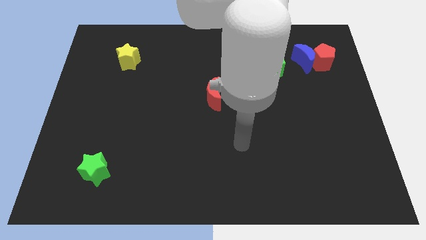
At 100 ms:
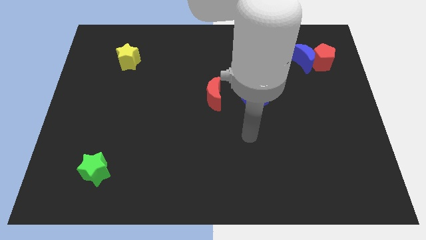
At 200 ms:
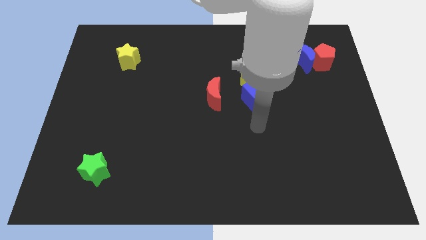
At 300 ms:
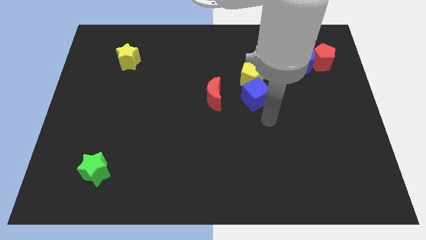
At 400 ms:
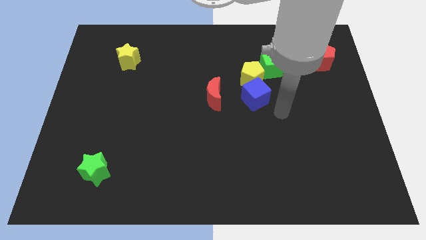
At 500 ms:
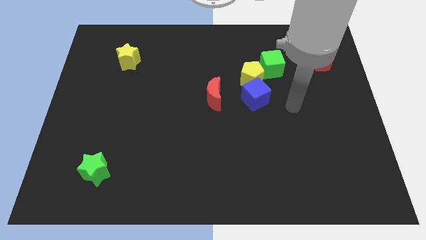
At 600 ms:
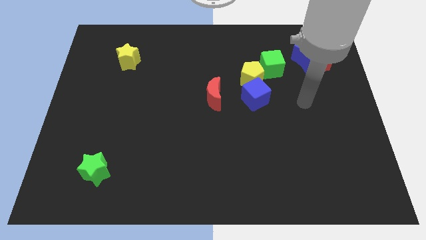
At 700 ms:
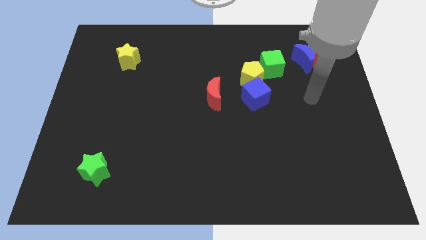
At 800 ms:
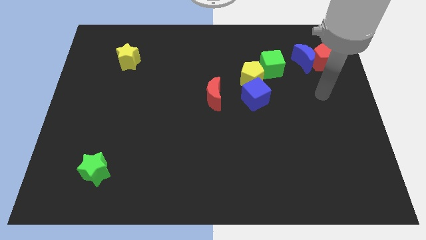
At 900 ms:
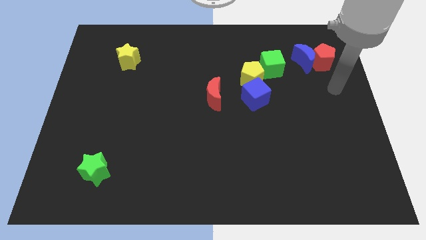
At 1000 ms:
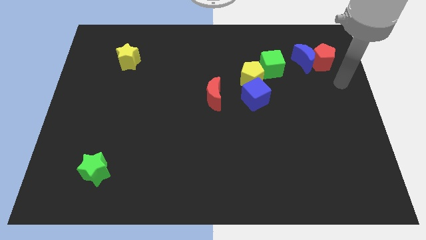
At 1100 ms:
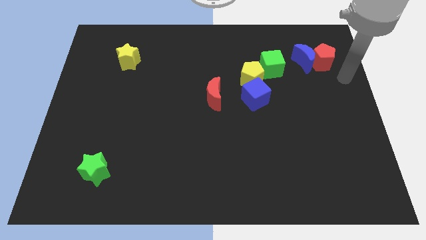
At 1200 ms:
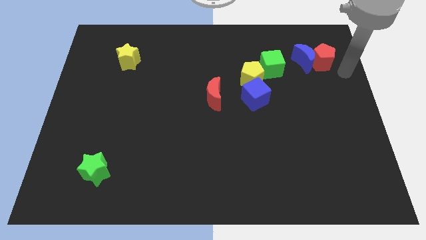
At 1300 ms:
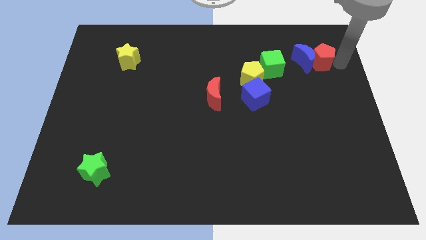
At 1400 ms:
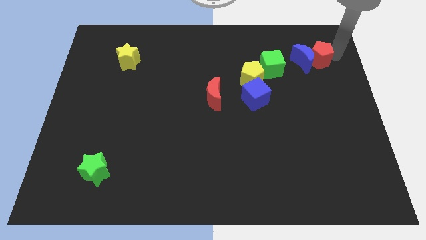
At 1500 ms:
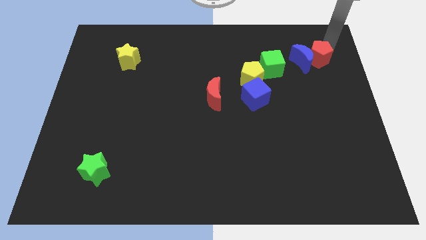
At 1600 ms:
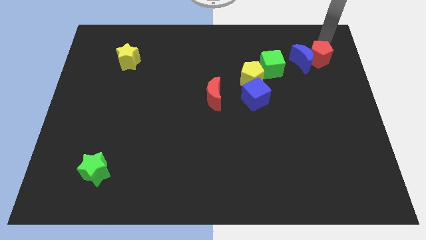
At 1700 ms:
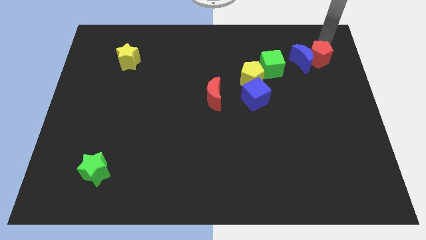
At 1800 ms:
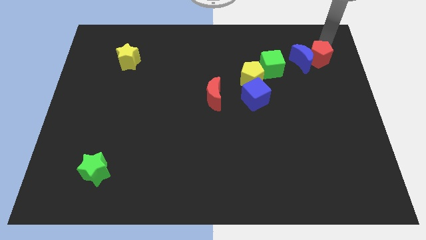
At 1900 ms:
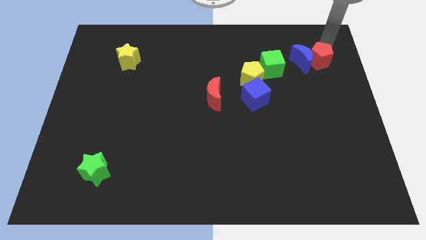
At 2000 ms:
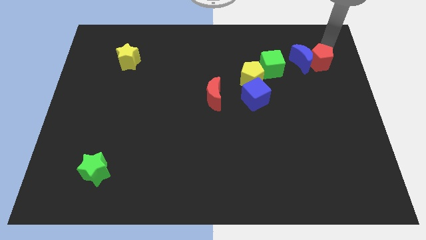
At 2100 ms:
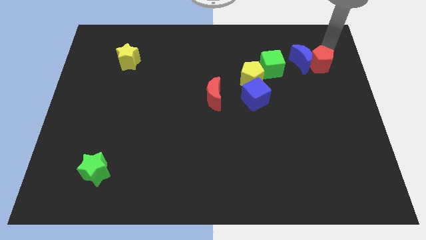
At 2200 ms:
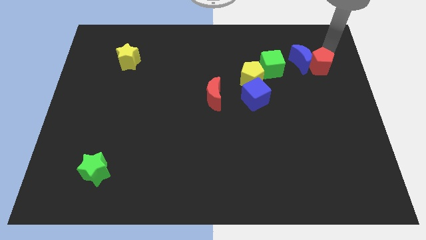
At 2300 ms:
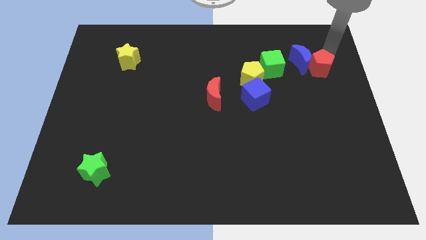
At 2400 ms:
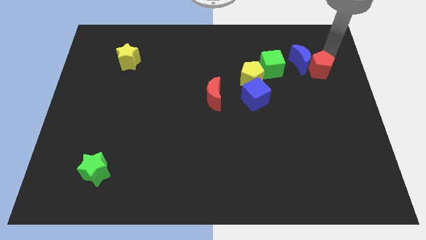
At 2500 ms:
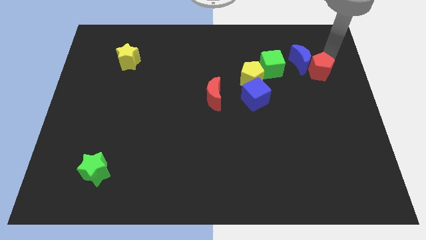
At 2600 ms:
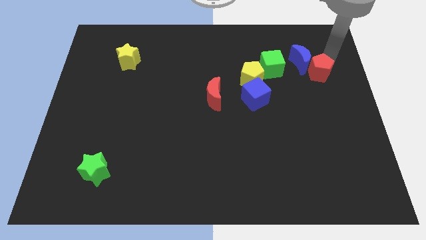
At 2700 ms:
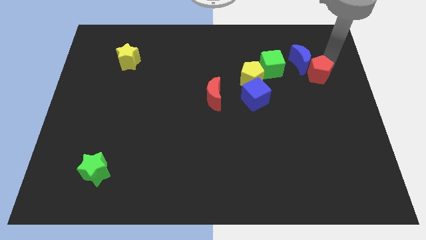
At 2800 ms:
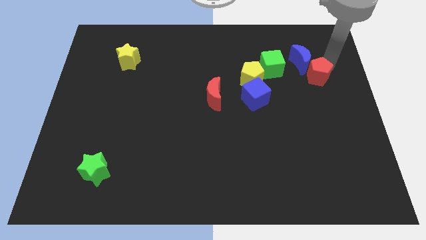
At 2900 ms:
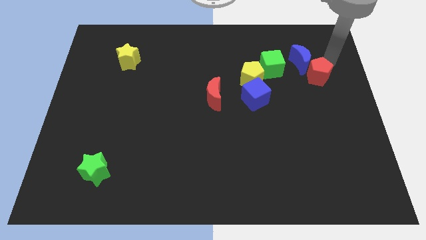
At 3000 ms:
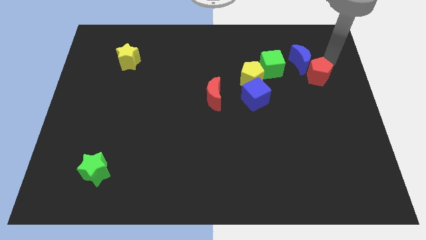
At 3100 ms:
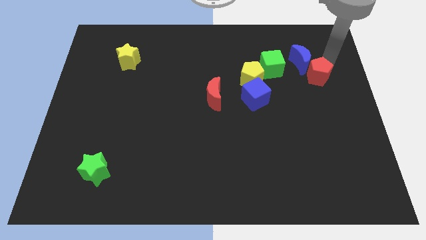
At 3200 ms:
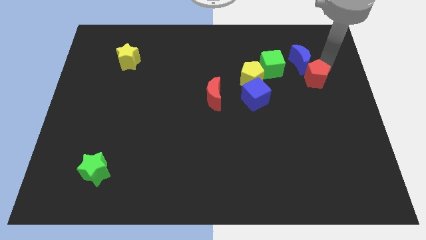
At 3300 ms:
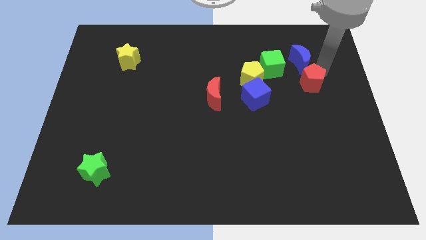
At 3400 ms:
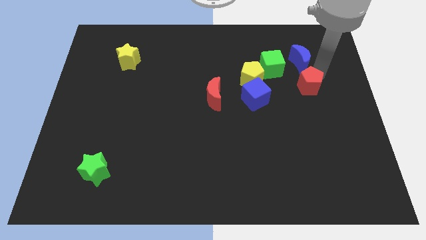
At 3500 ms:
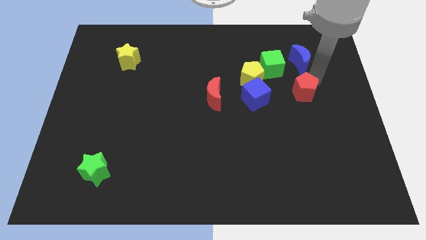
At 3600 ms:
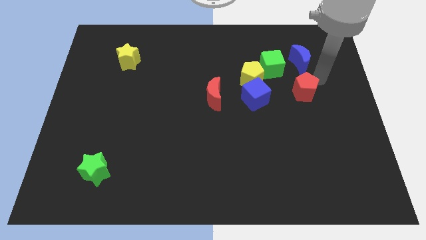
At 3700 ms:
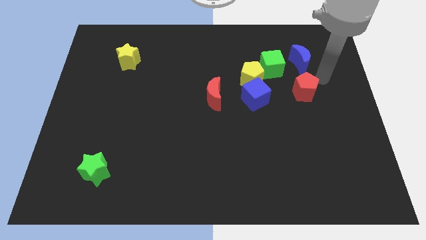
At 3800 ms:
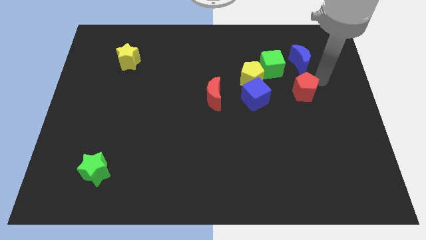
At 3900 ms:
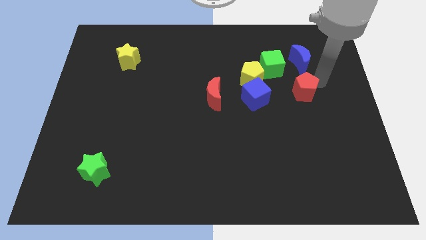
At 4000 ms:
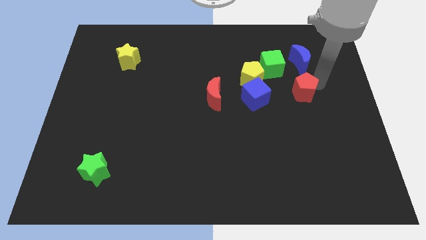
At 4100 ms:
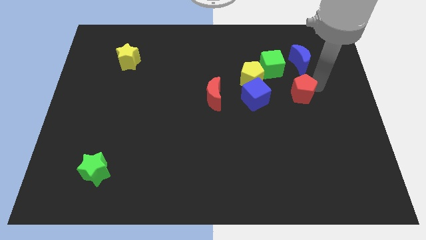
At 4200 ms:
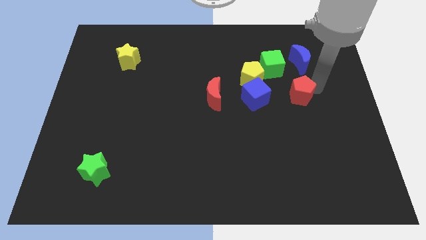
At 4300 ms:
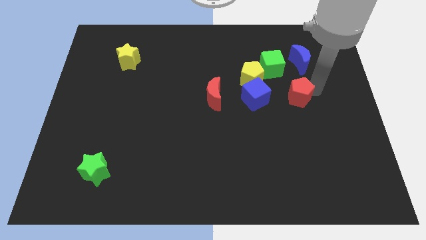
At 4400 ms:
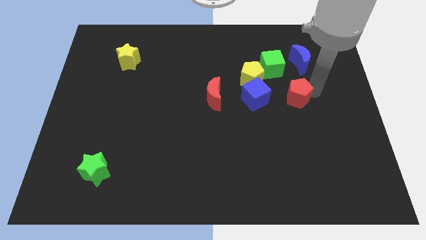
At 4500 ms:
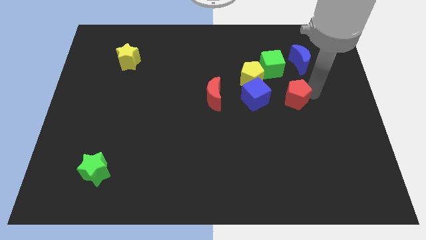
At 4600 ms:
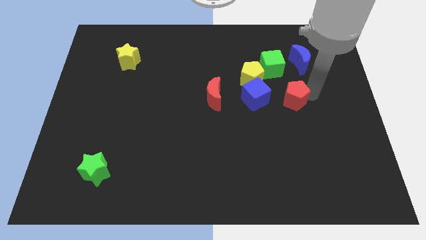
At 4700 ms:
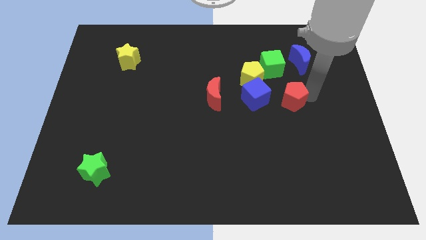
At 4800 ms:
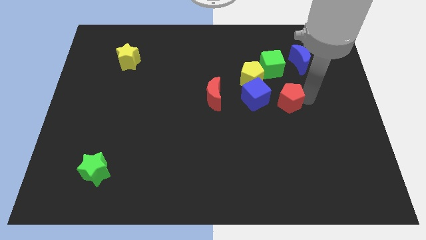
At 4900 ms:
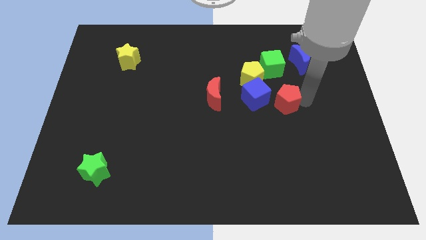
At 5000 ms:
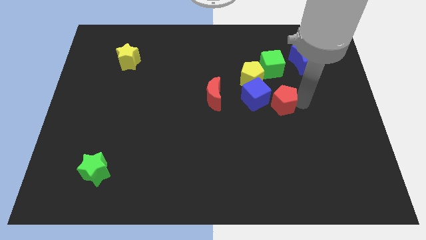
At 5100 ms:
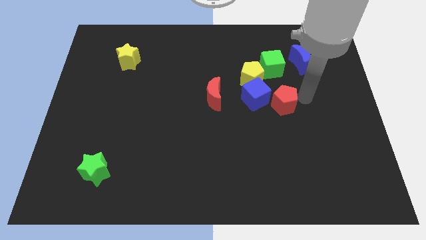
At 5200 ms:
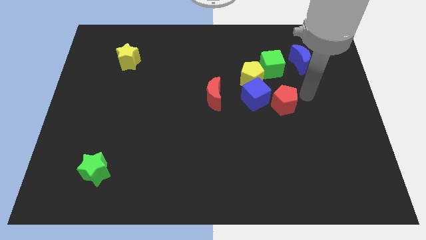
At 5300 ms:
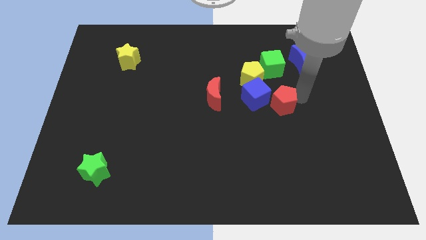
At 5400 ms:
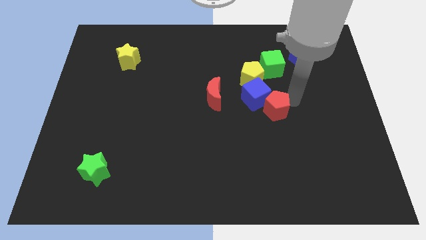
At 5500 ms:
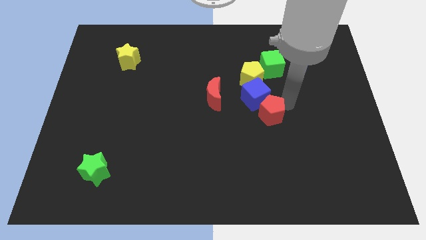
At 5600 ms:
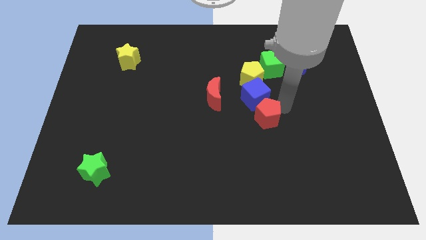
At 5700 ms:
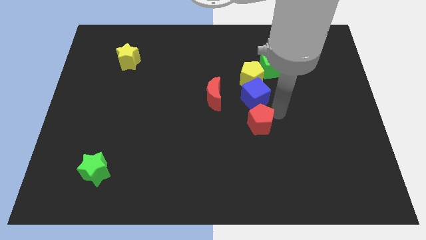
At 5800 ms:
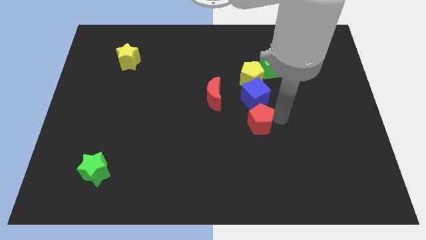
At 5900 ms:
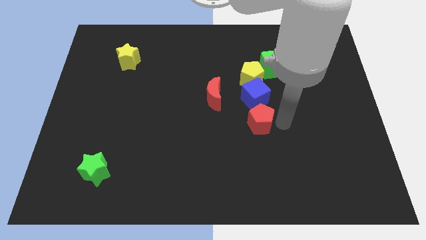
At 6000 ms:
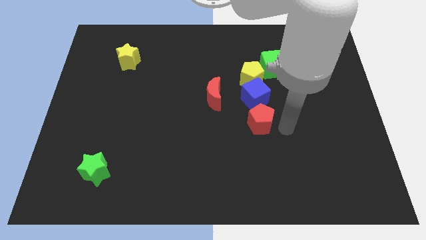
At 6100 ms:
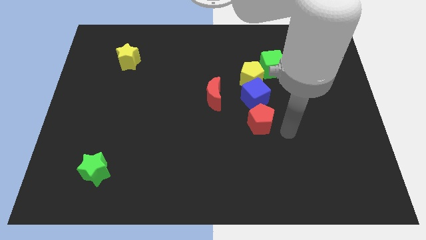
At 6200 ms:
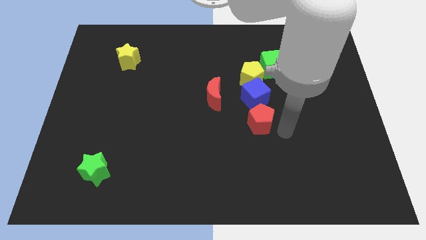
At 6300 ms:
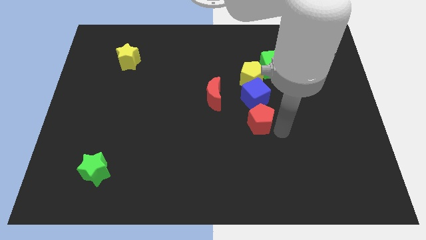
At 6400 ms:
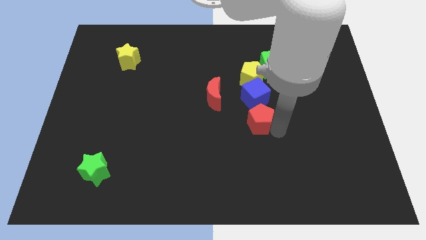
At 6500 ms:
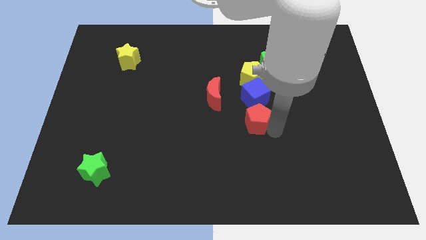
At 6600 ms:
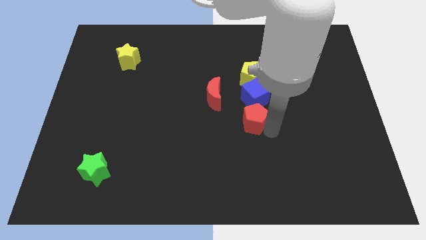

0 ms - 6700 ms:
move the red pentagon to the bottom left side of the blue cube
